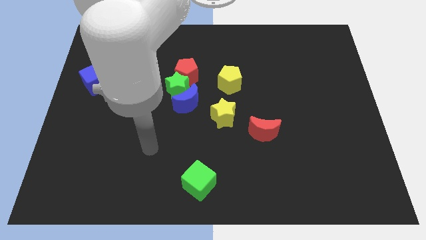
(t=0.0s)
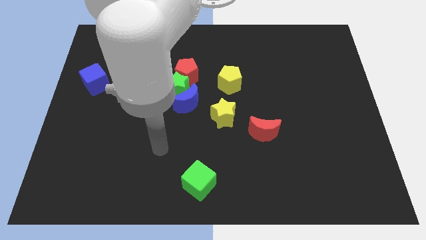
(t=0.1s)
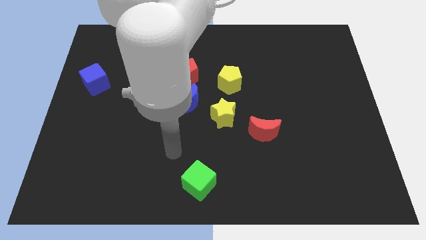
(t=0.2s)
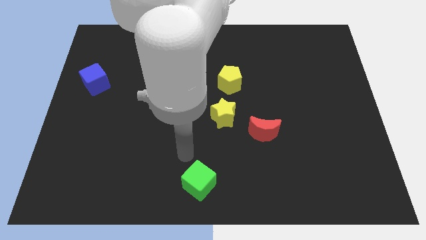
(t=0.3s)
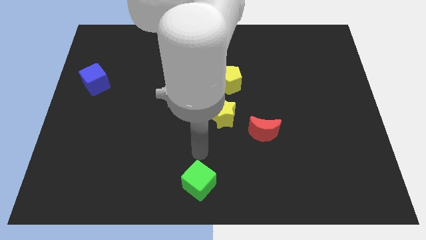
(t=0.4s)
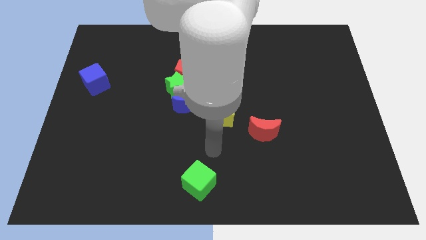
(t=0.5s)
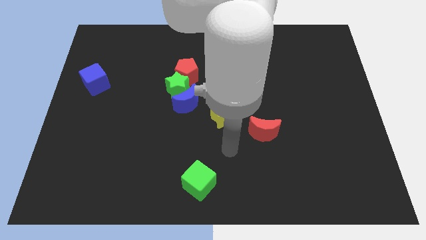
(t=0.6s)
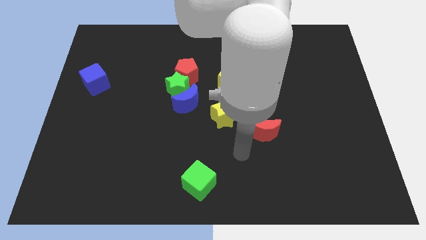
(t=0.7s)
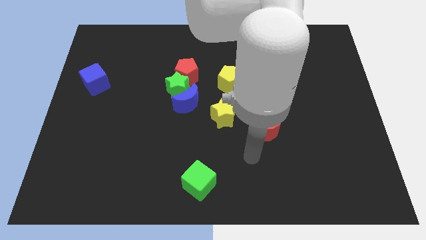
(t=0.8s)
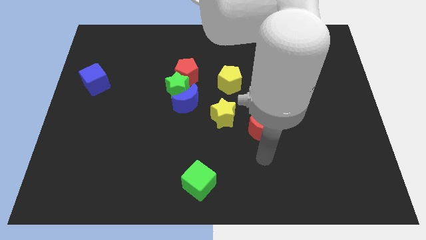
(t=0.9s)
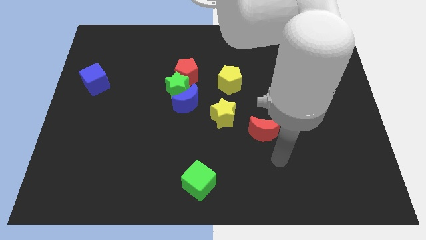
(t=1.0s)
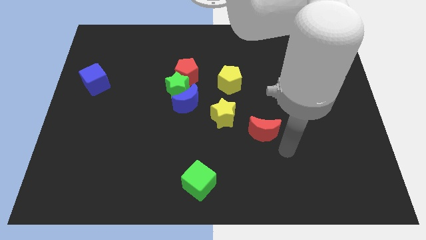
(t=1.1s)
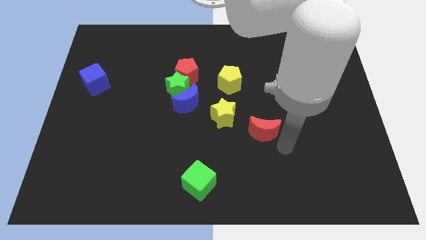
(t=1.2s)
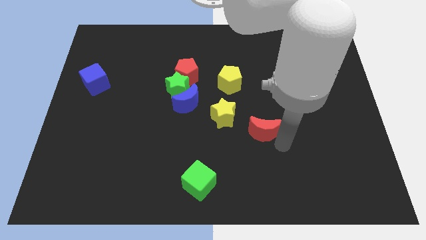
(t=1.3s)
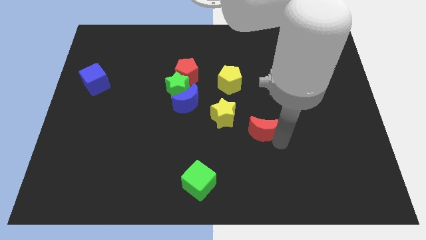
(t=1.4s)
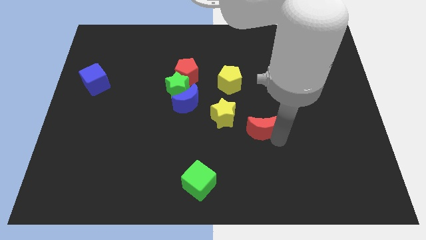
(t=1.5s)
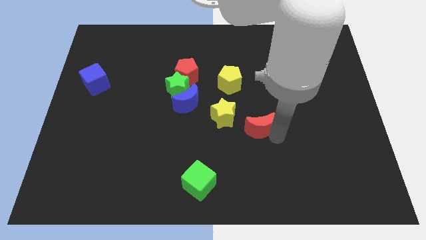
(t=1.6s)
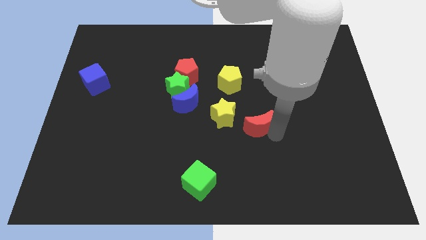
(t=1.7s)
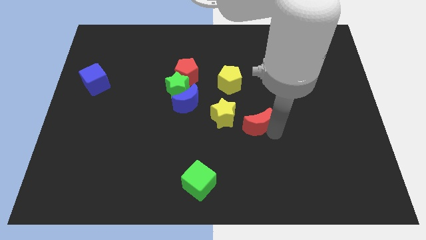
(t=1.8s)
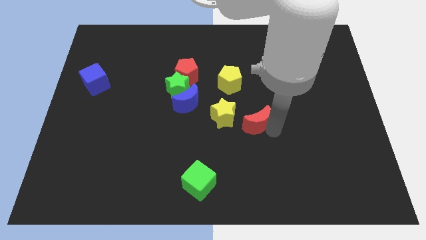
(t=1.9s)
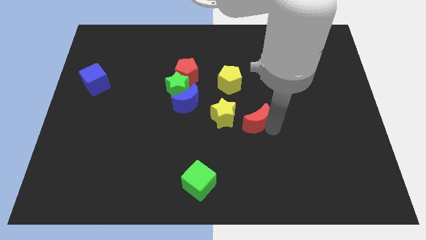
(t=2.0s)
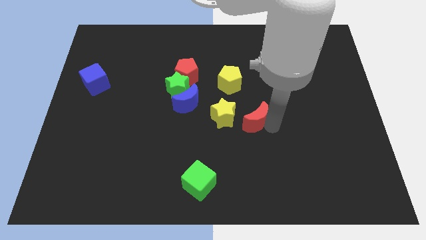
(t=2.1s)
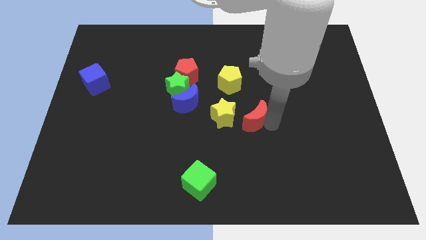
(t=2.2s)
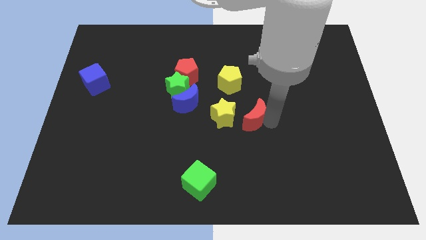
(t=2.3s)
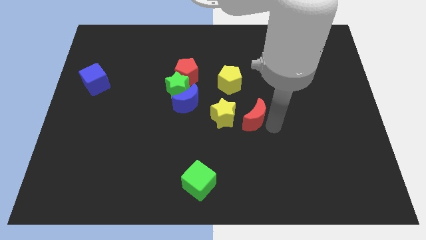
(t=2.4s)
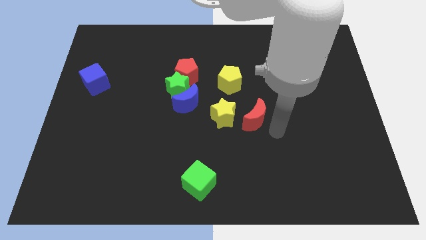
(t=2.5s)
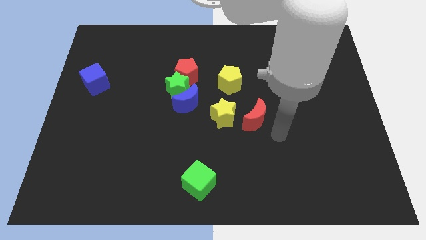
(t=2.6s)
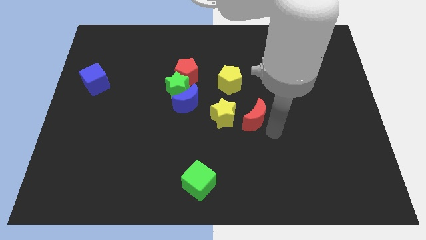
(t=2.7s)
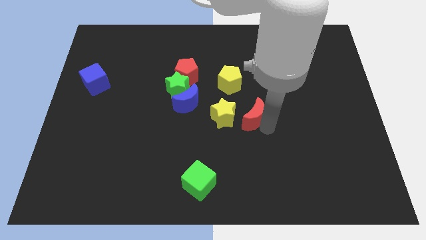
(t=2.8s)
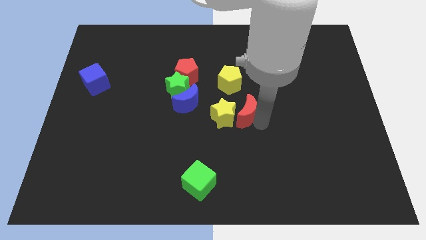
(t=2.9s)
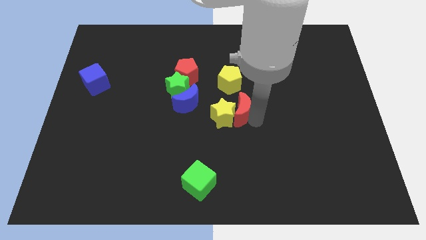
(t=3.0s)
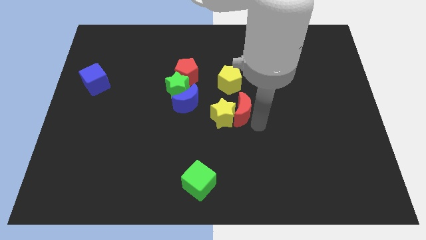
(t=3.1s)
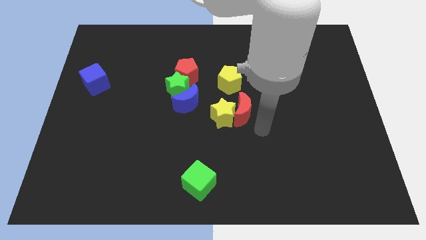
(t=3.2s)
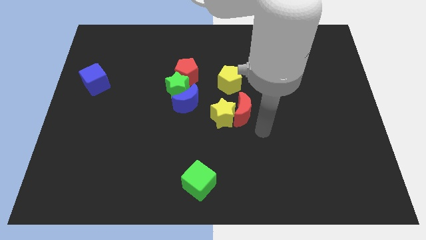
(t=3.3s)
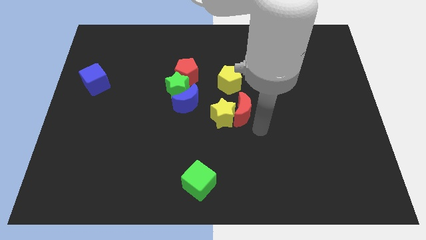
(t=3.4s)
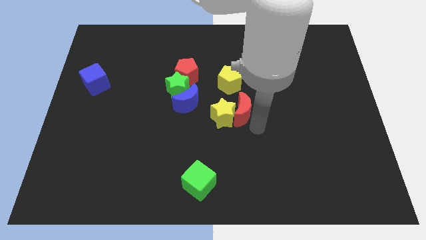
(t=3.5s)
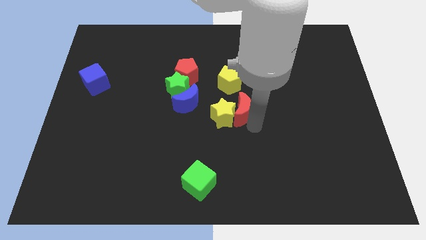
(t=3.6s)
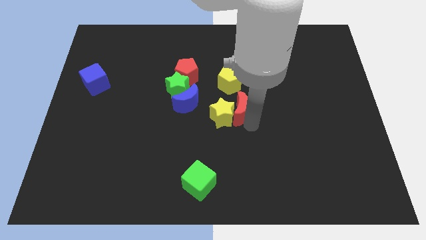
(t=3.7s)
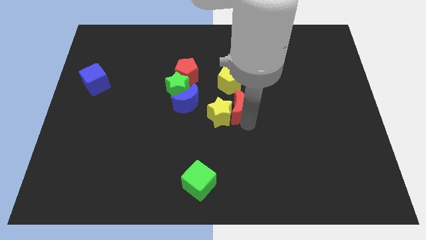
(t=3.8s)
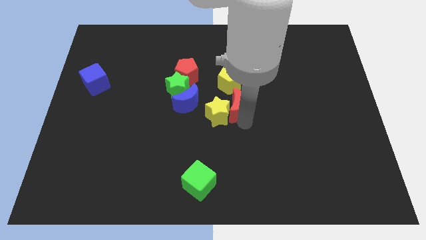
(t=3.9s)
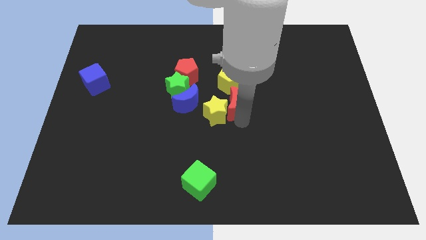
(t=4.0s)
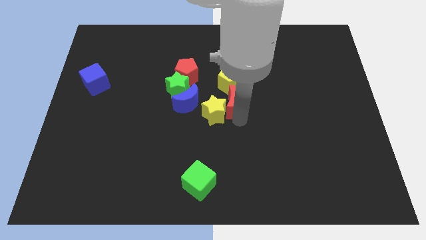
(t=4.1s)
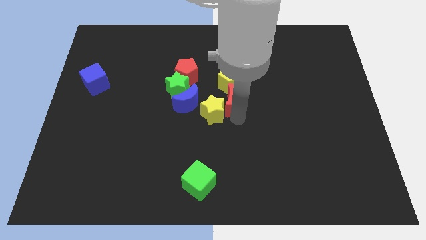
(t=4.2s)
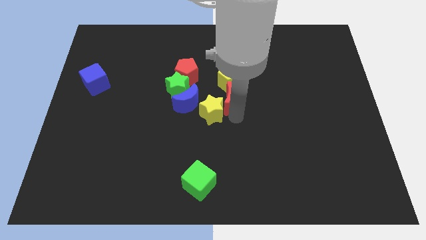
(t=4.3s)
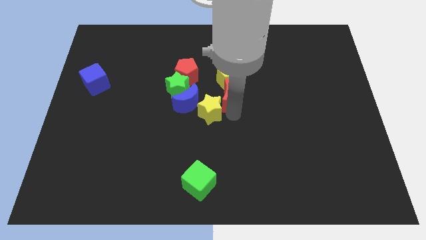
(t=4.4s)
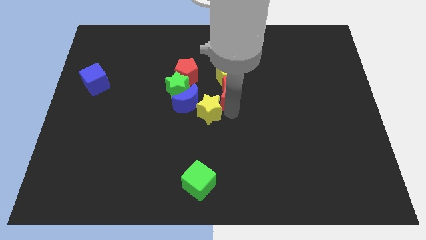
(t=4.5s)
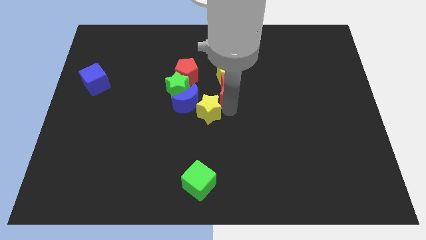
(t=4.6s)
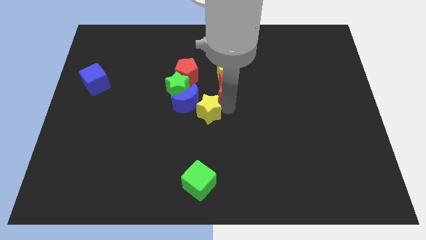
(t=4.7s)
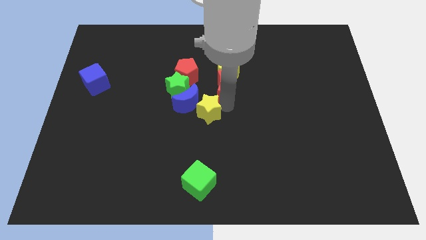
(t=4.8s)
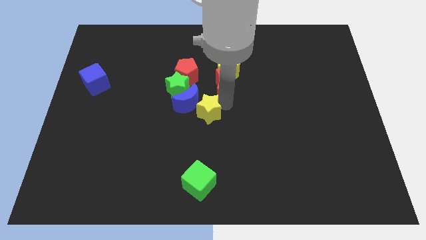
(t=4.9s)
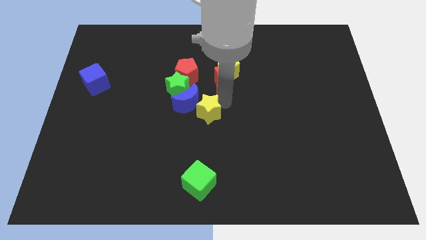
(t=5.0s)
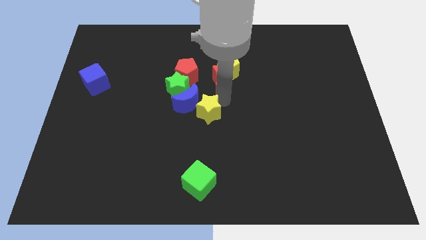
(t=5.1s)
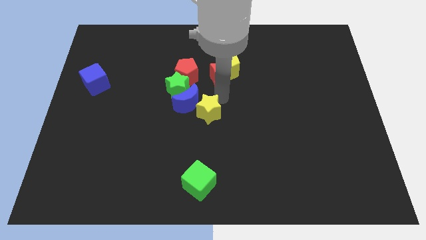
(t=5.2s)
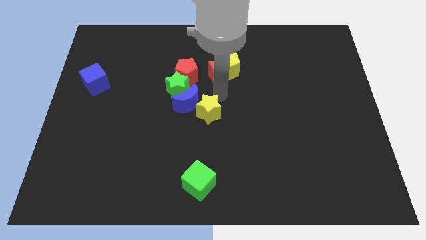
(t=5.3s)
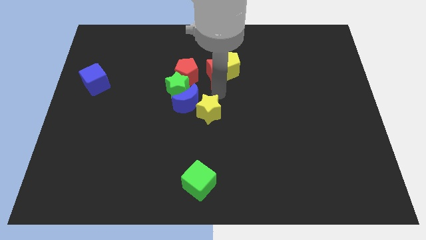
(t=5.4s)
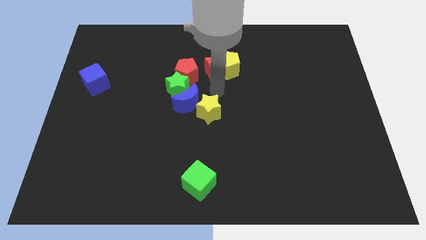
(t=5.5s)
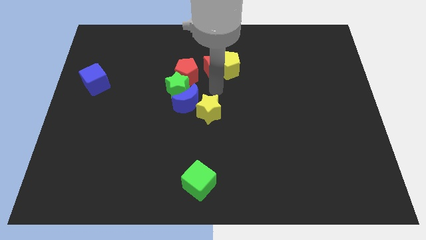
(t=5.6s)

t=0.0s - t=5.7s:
push the red moon up and to the left diagonally

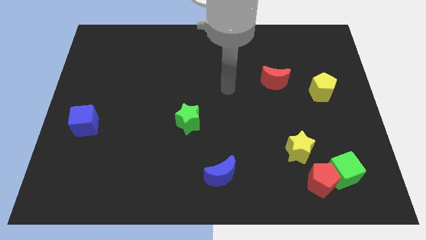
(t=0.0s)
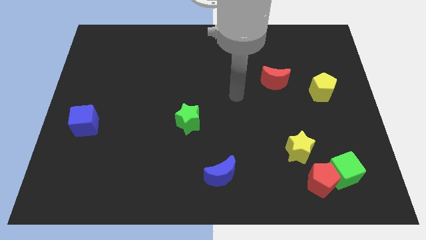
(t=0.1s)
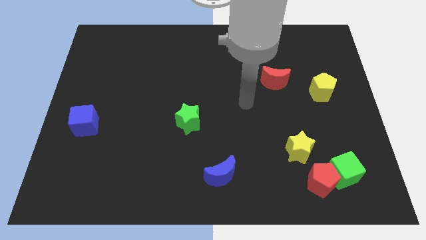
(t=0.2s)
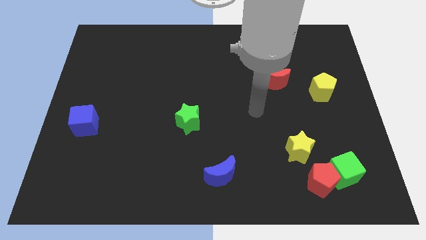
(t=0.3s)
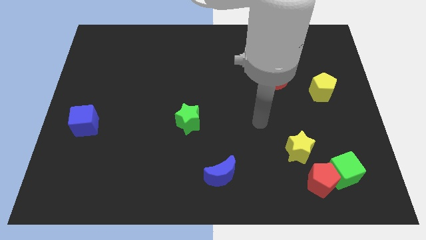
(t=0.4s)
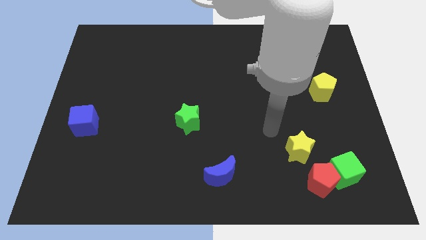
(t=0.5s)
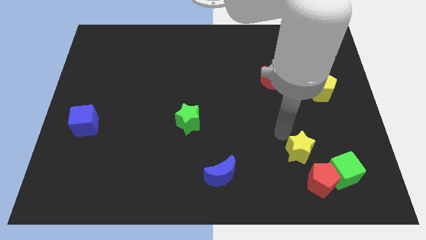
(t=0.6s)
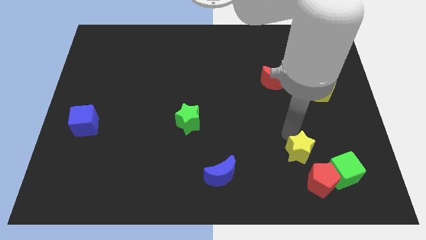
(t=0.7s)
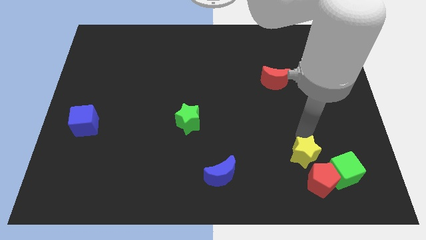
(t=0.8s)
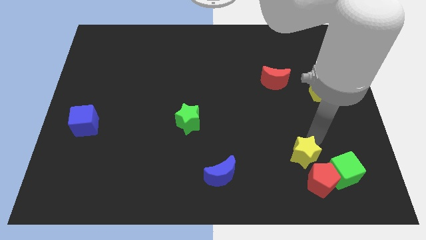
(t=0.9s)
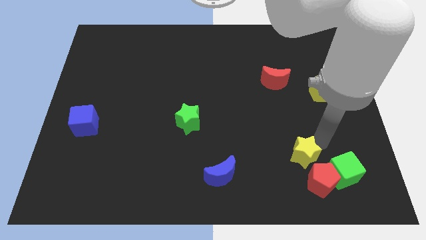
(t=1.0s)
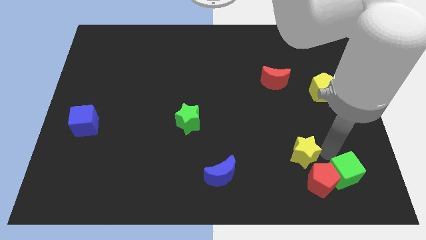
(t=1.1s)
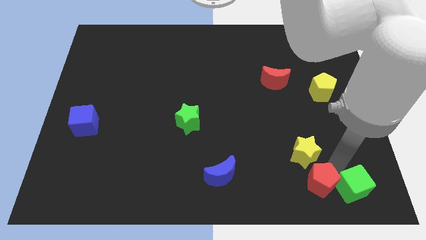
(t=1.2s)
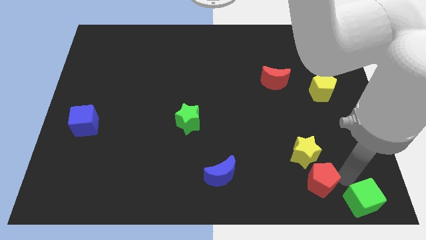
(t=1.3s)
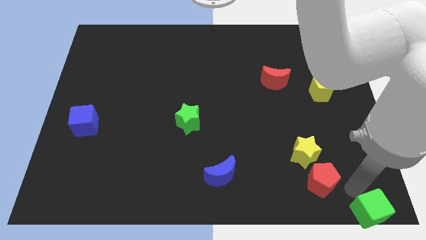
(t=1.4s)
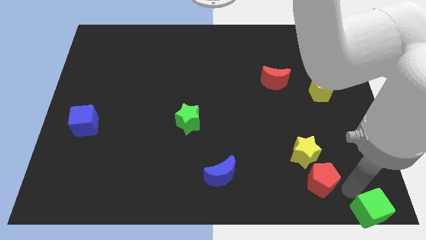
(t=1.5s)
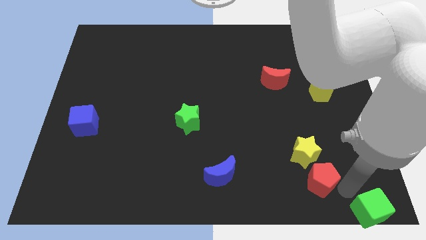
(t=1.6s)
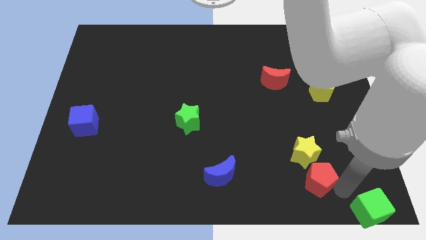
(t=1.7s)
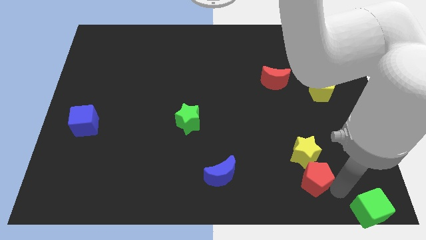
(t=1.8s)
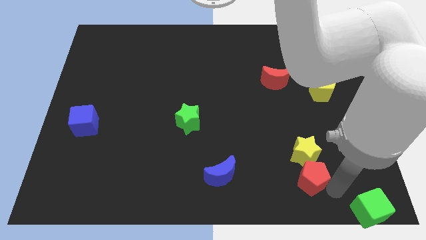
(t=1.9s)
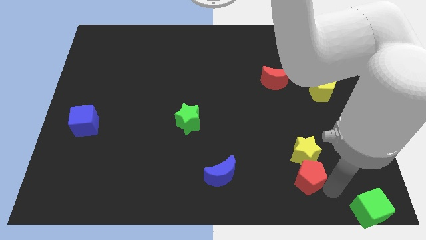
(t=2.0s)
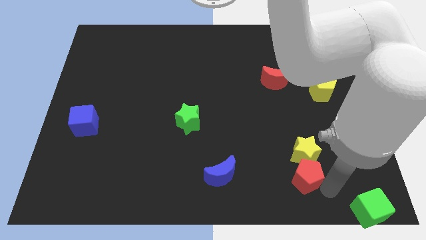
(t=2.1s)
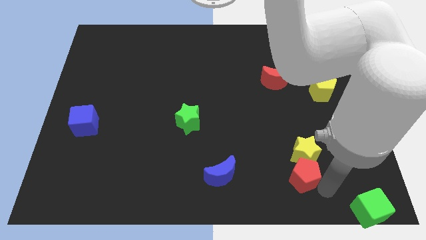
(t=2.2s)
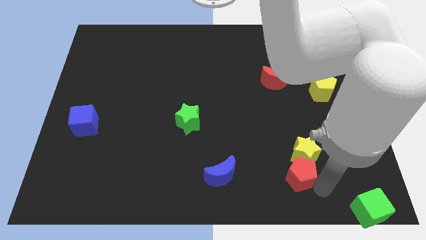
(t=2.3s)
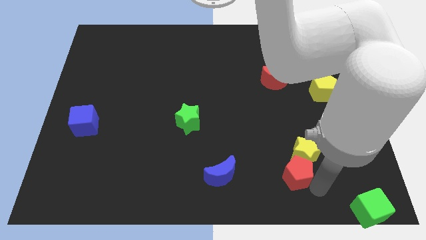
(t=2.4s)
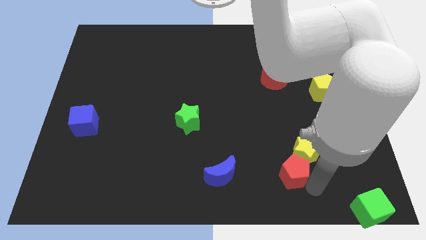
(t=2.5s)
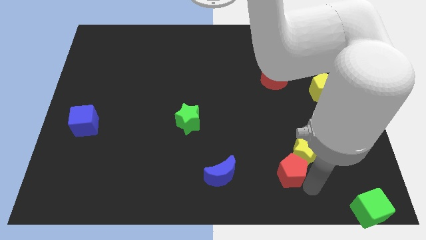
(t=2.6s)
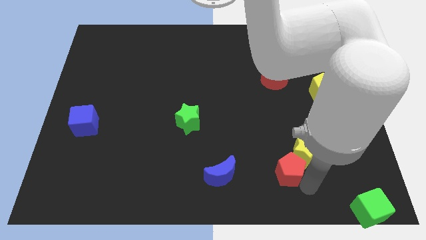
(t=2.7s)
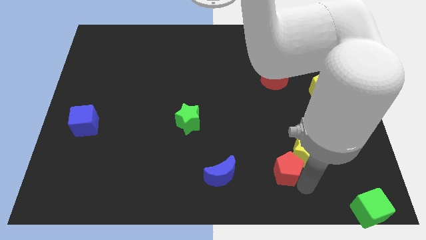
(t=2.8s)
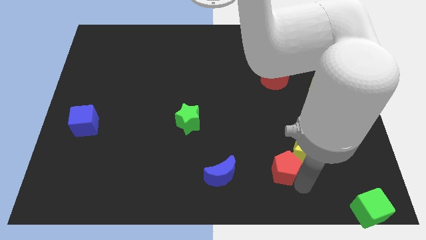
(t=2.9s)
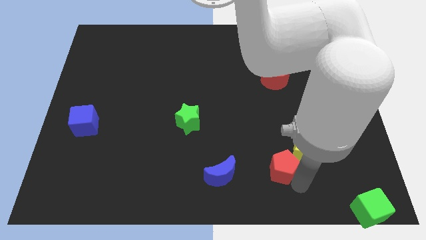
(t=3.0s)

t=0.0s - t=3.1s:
slightly push the red pentagon upwards and to the left diagonally
